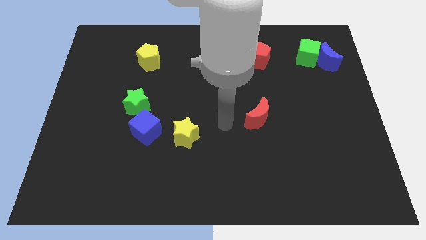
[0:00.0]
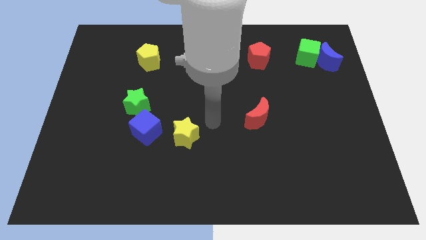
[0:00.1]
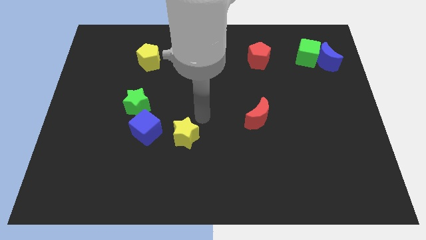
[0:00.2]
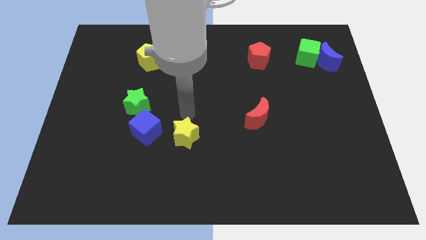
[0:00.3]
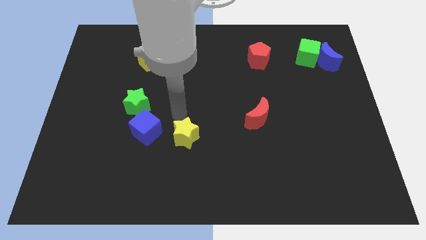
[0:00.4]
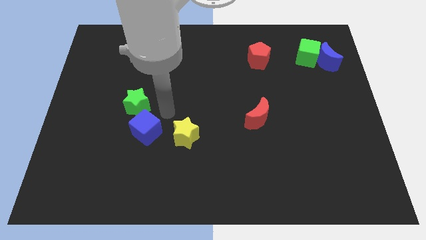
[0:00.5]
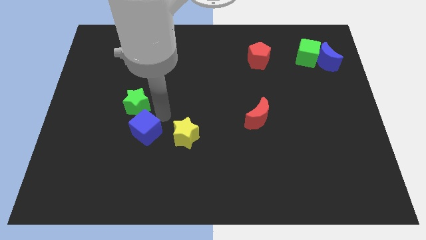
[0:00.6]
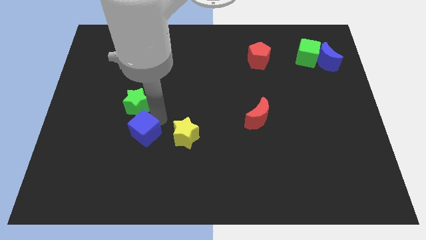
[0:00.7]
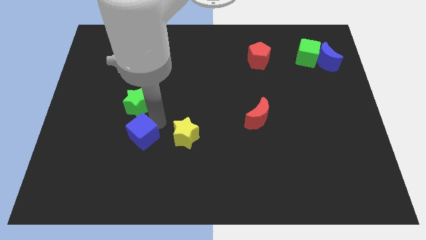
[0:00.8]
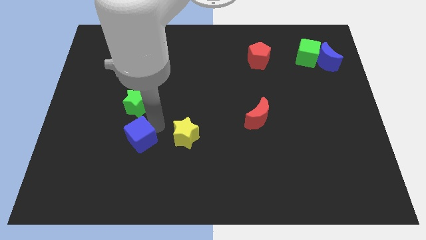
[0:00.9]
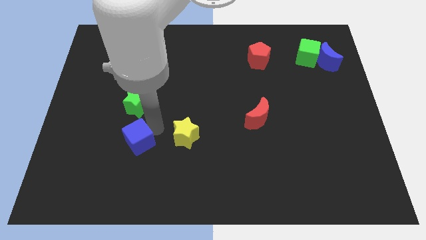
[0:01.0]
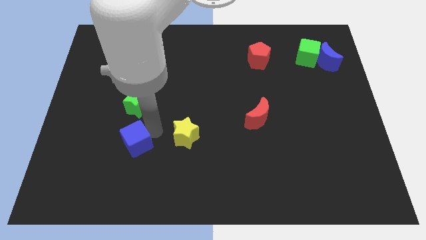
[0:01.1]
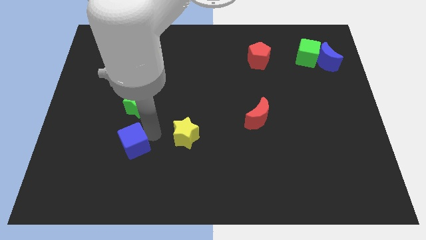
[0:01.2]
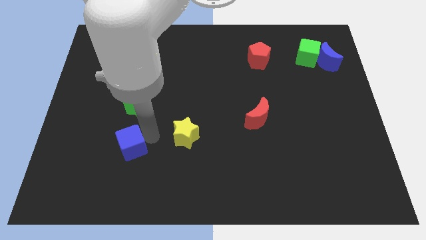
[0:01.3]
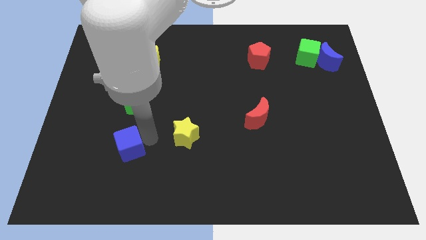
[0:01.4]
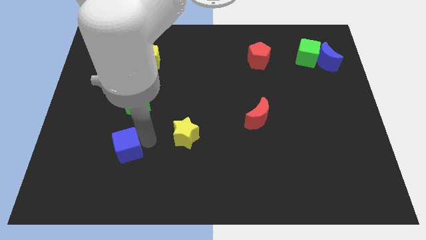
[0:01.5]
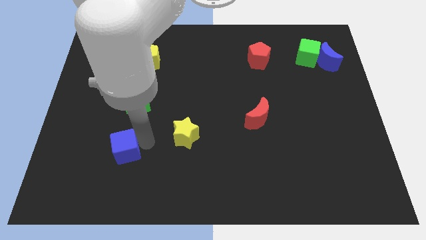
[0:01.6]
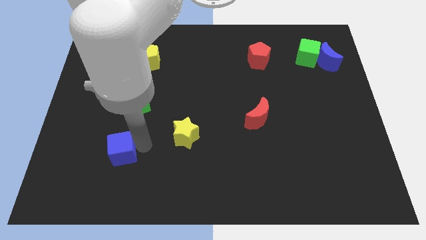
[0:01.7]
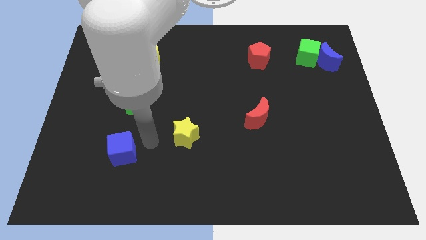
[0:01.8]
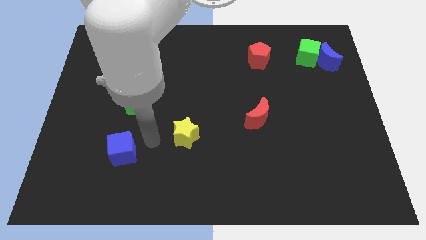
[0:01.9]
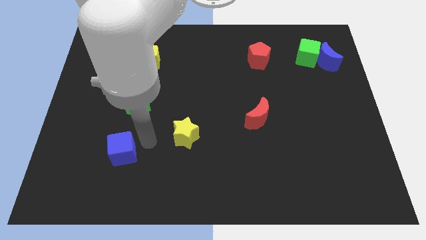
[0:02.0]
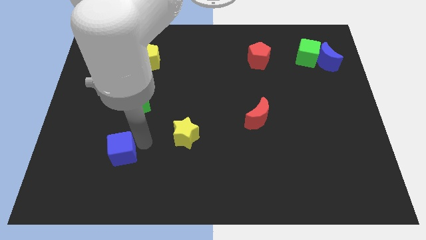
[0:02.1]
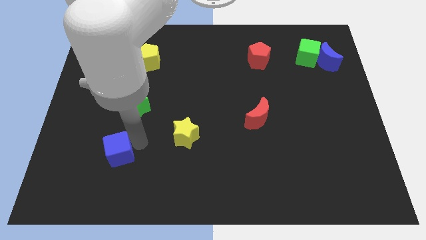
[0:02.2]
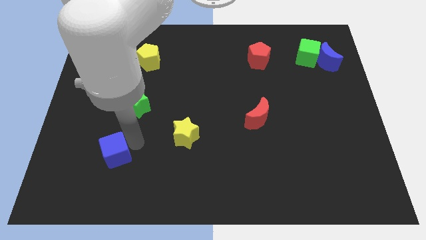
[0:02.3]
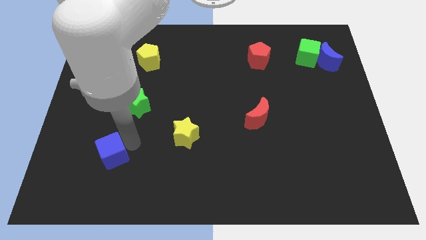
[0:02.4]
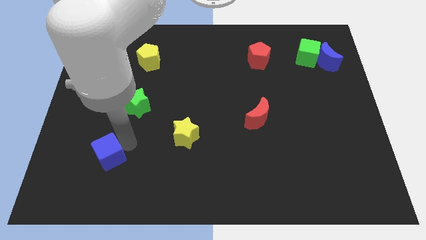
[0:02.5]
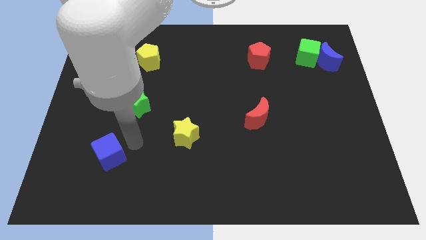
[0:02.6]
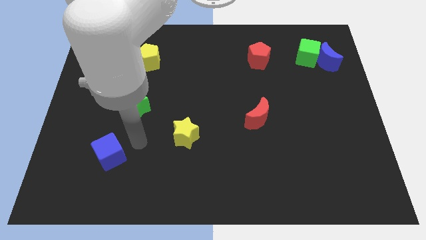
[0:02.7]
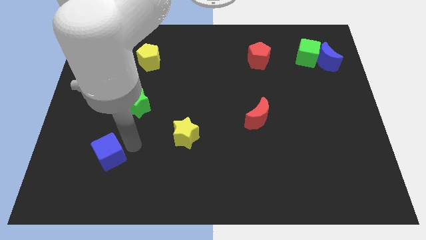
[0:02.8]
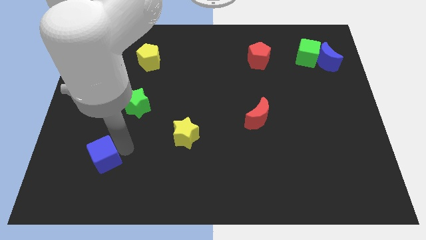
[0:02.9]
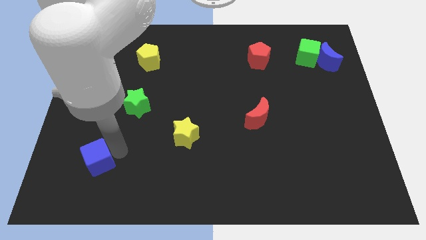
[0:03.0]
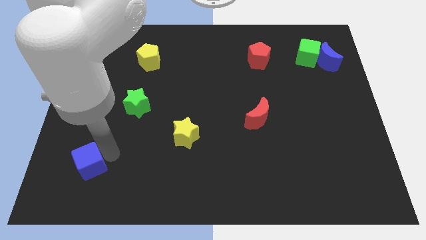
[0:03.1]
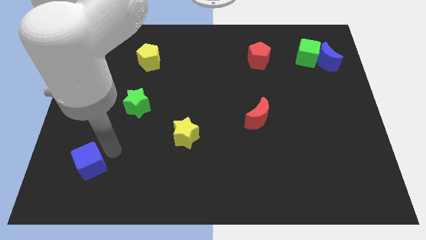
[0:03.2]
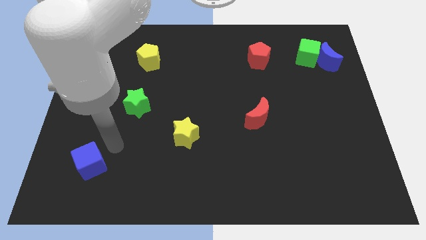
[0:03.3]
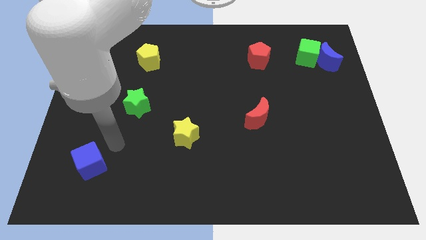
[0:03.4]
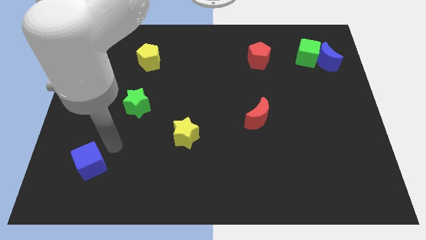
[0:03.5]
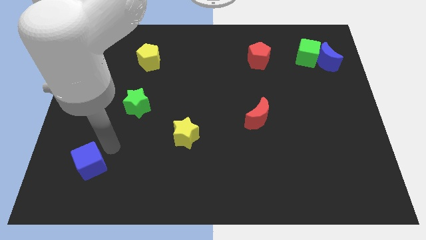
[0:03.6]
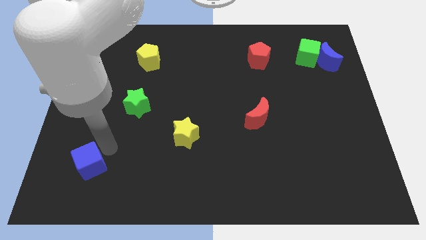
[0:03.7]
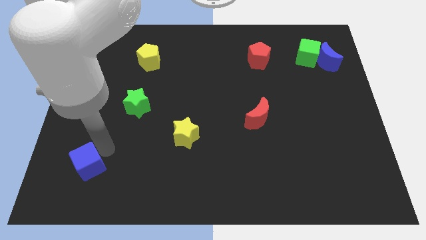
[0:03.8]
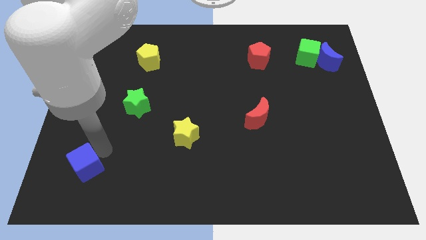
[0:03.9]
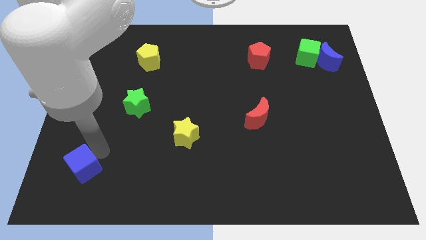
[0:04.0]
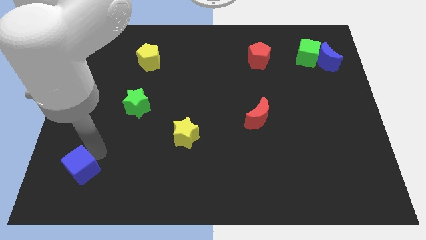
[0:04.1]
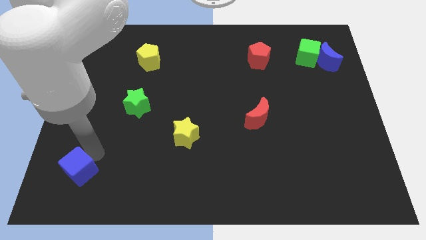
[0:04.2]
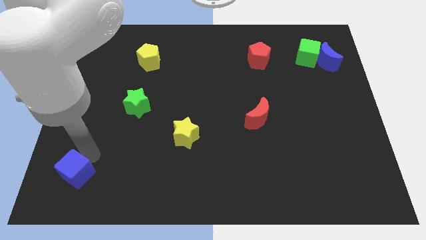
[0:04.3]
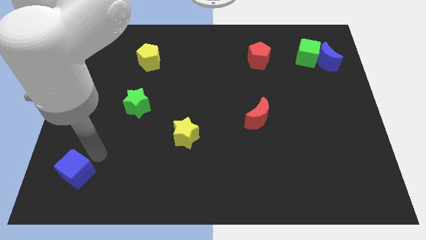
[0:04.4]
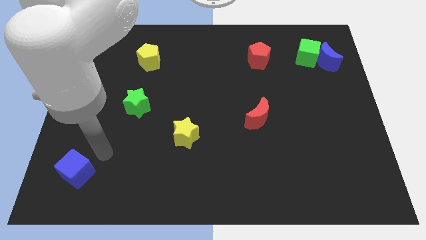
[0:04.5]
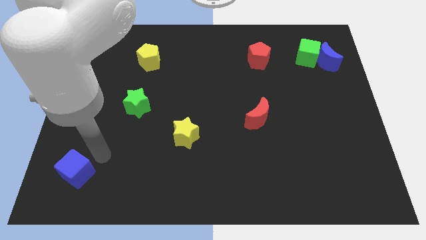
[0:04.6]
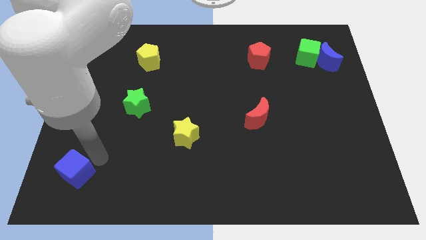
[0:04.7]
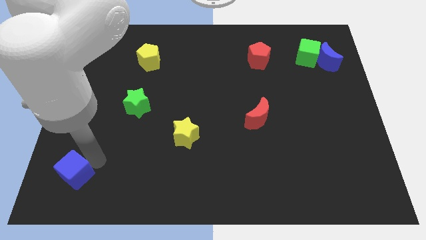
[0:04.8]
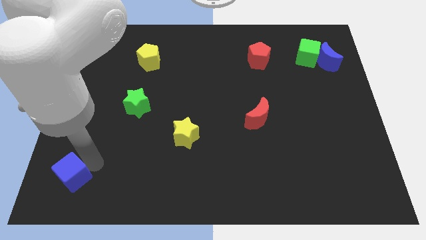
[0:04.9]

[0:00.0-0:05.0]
put the blue cube to the lower left corner

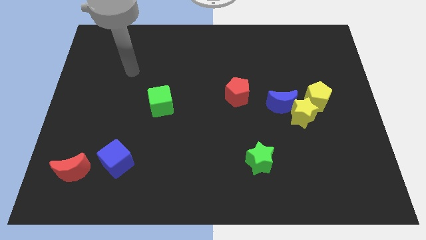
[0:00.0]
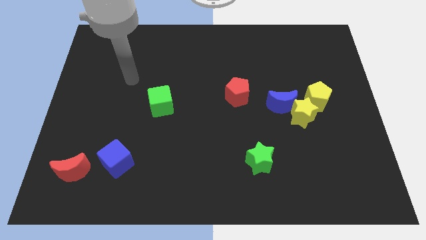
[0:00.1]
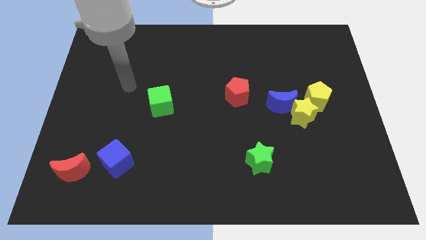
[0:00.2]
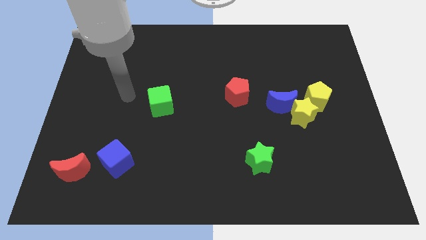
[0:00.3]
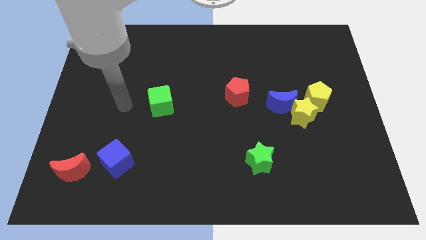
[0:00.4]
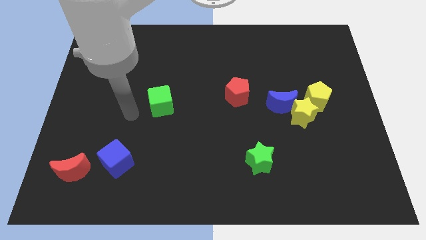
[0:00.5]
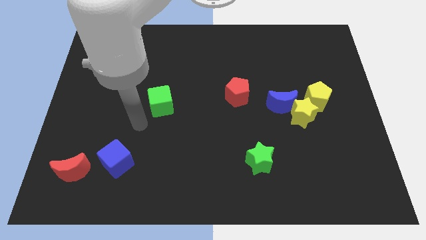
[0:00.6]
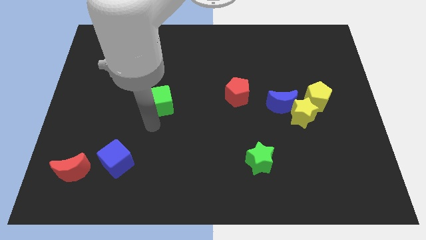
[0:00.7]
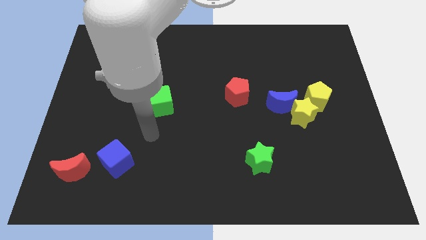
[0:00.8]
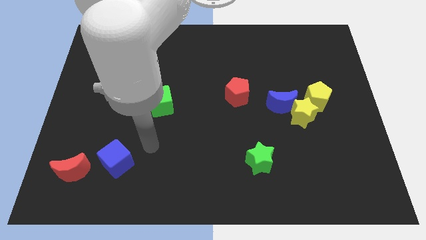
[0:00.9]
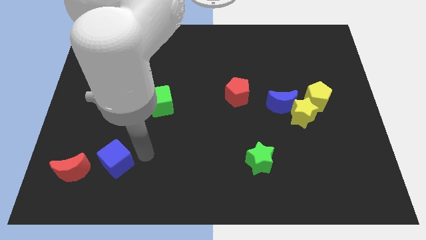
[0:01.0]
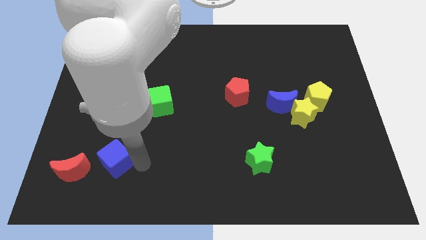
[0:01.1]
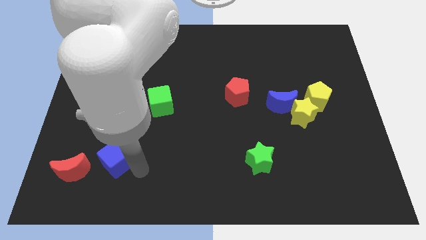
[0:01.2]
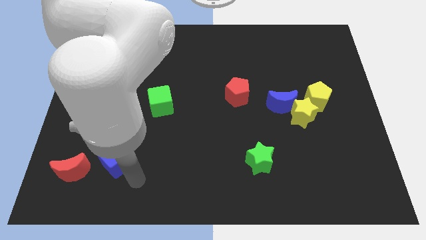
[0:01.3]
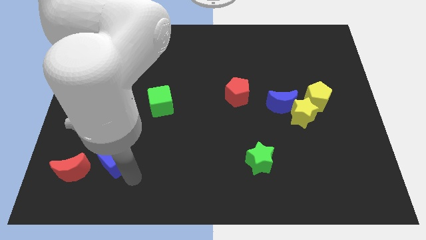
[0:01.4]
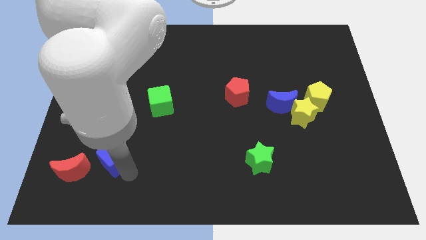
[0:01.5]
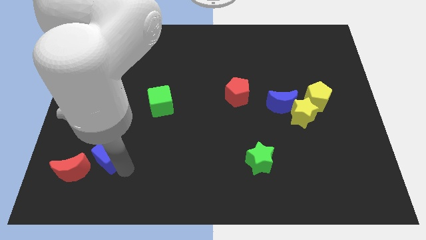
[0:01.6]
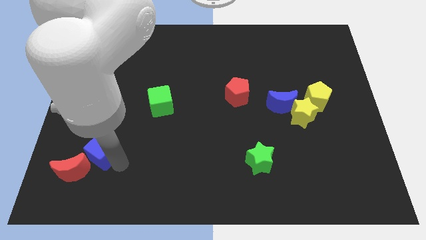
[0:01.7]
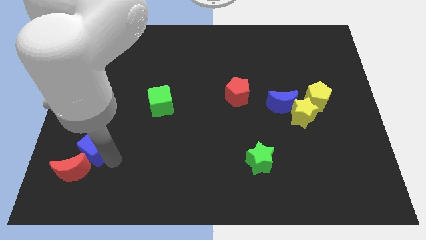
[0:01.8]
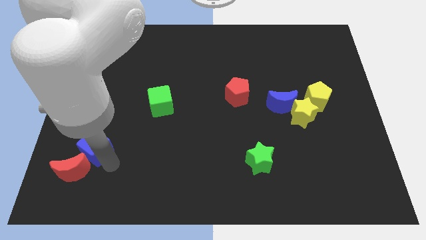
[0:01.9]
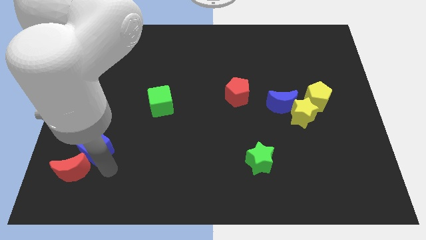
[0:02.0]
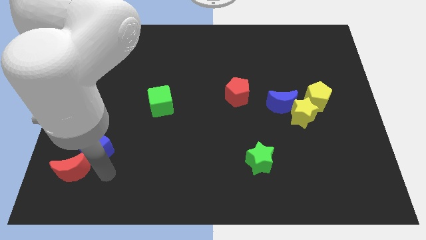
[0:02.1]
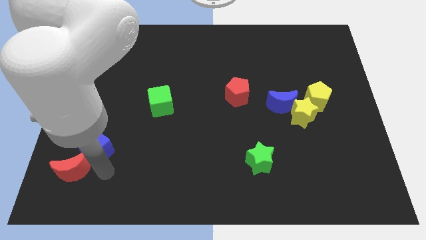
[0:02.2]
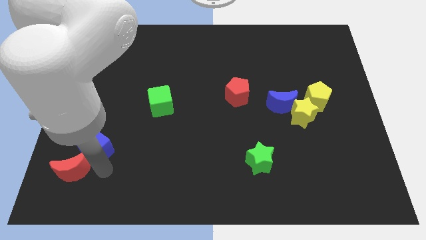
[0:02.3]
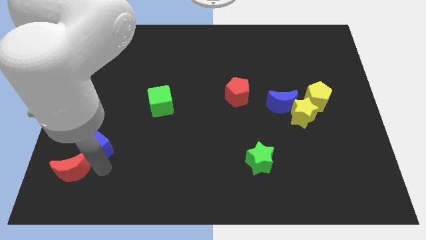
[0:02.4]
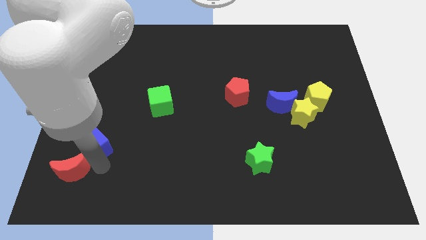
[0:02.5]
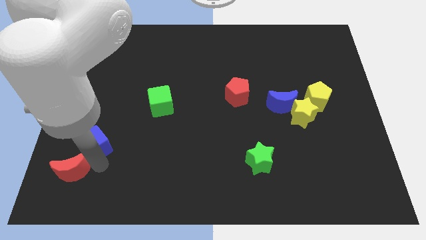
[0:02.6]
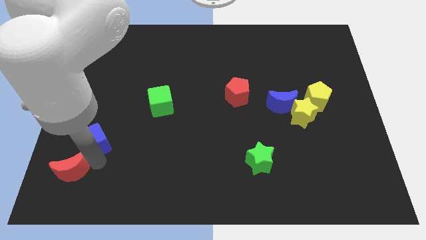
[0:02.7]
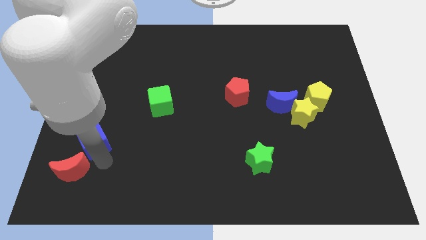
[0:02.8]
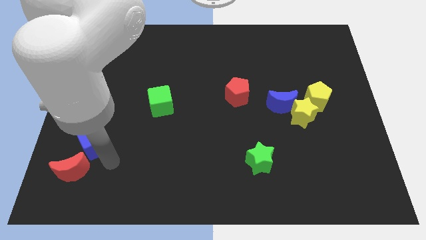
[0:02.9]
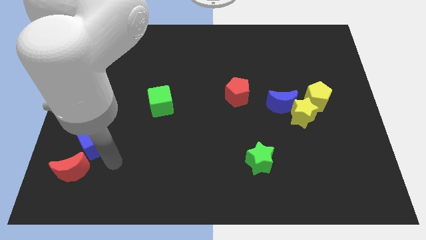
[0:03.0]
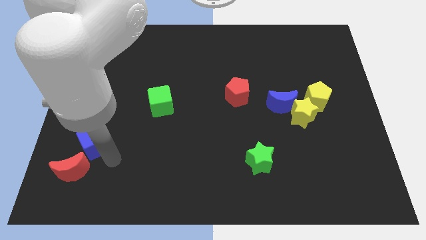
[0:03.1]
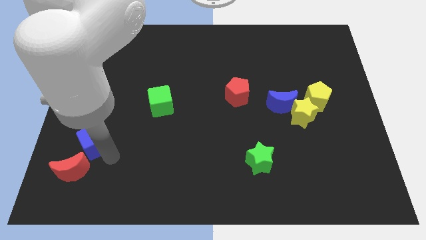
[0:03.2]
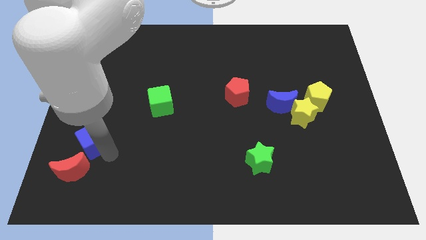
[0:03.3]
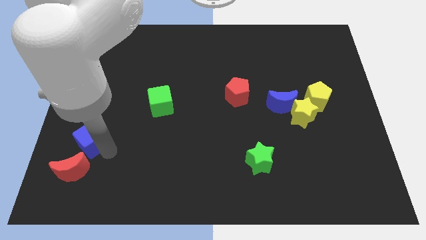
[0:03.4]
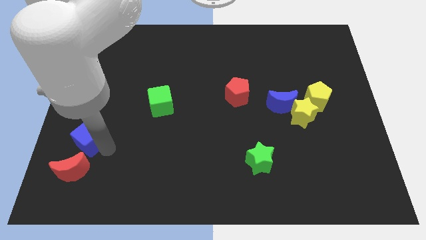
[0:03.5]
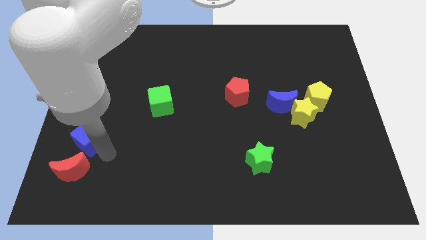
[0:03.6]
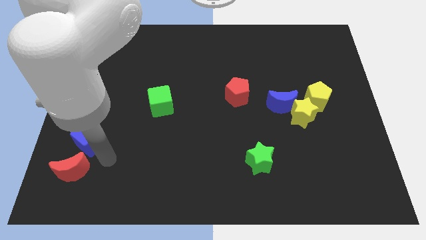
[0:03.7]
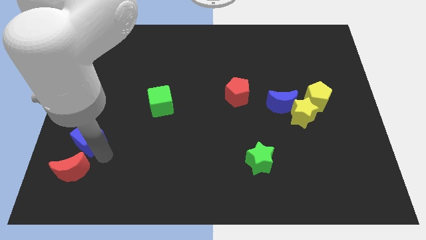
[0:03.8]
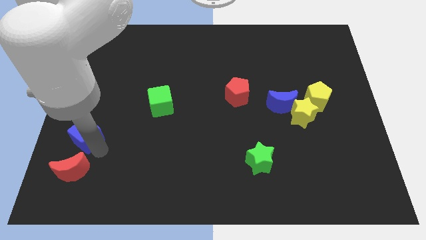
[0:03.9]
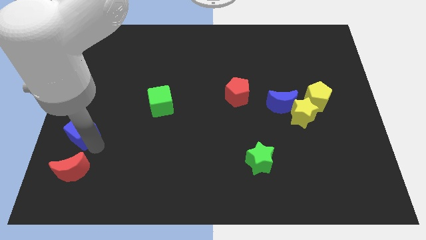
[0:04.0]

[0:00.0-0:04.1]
slide the blue cube to the left side of the board
